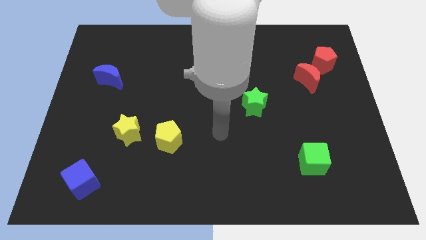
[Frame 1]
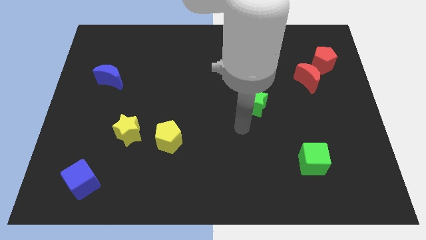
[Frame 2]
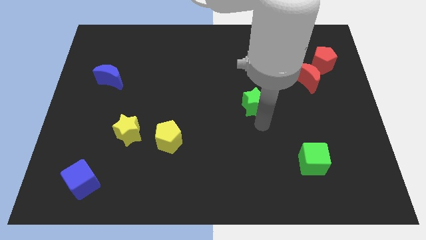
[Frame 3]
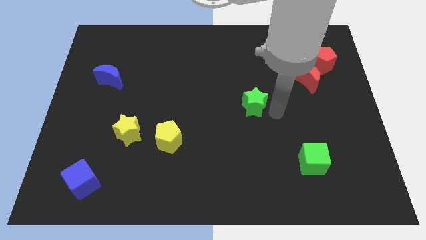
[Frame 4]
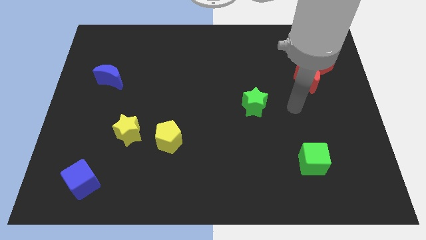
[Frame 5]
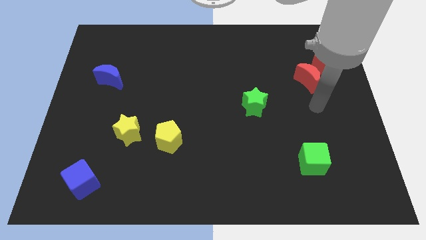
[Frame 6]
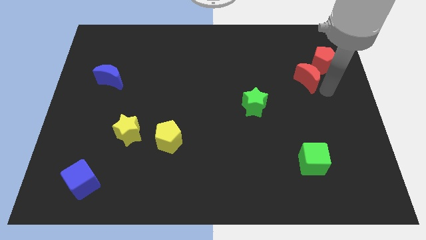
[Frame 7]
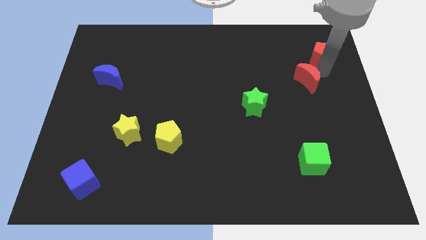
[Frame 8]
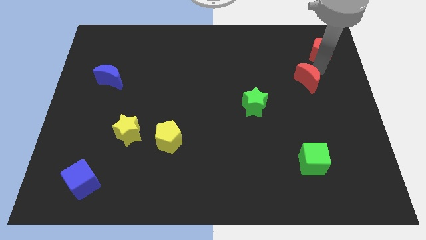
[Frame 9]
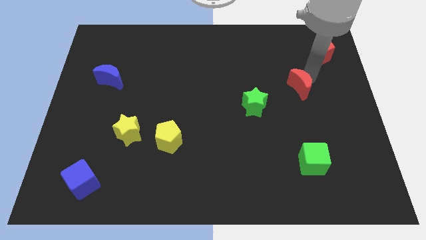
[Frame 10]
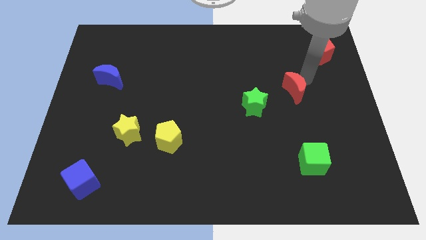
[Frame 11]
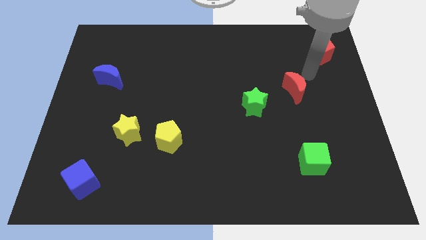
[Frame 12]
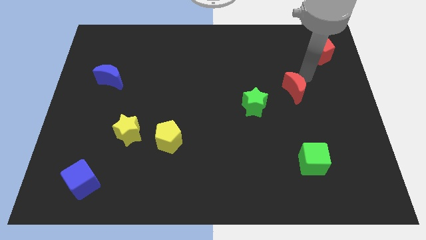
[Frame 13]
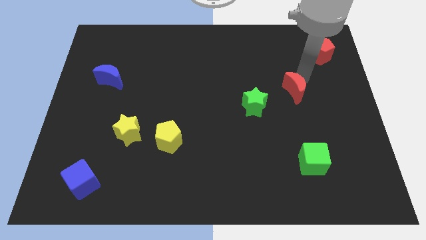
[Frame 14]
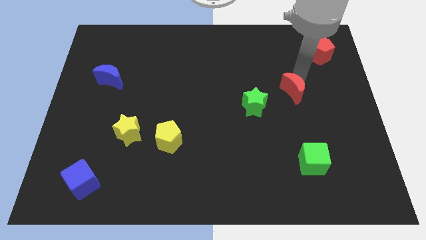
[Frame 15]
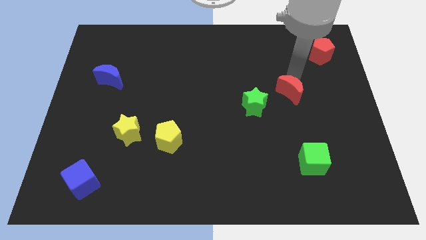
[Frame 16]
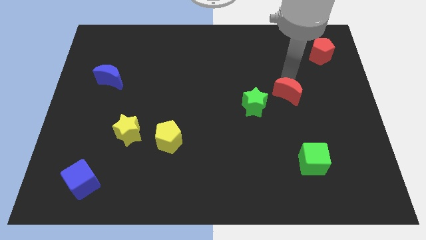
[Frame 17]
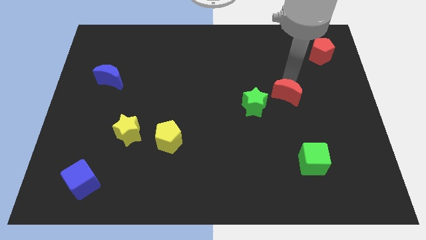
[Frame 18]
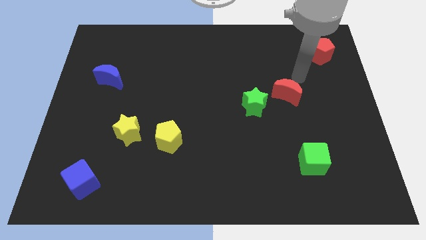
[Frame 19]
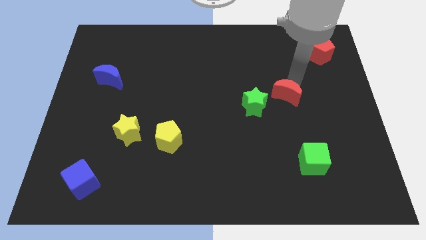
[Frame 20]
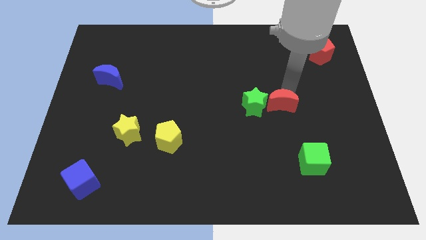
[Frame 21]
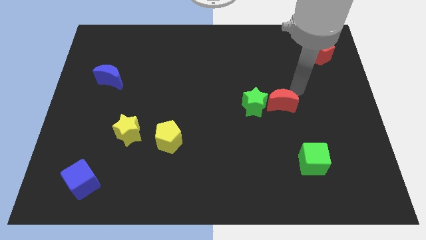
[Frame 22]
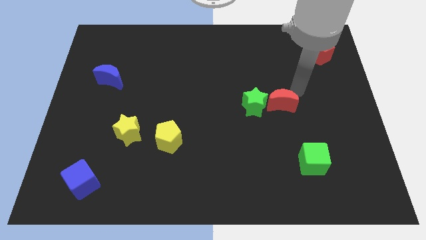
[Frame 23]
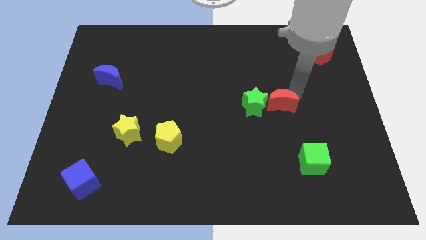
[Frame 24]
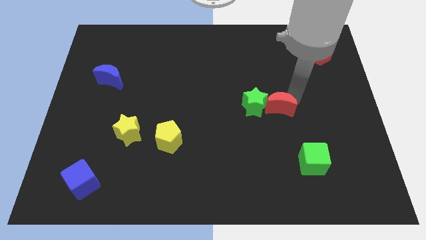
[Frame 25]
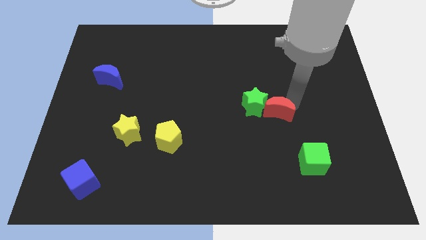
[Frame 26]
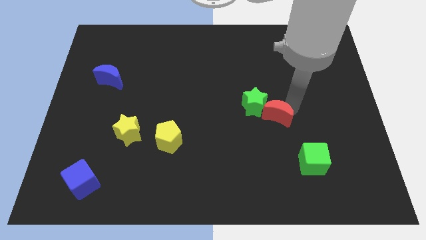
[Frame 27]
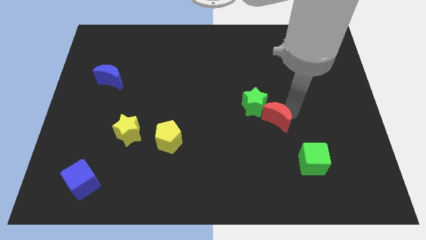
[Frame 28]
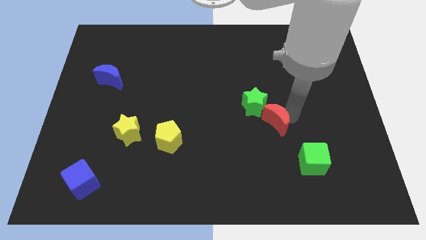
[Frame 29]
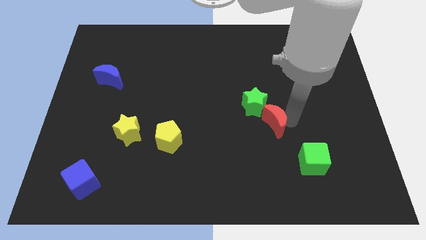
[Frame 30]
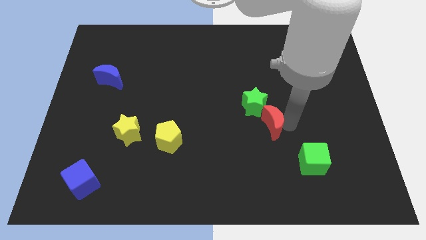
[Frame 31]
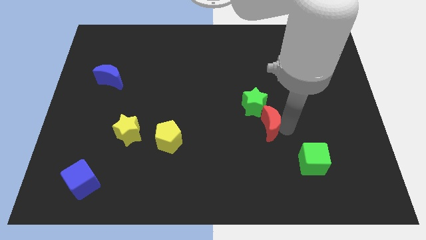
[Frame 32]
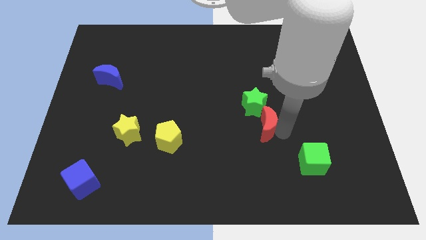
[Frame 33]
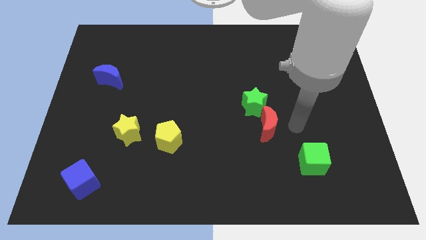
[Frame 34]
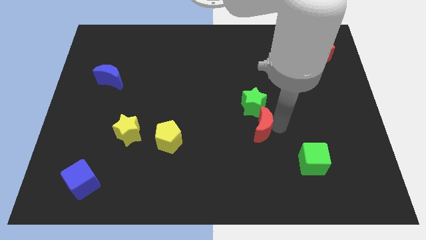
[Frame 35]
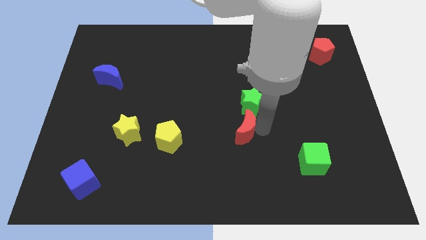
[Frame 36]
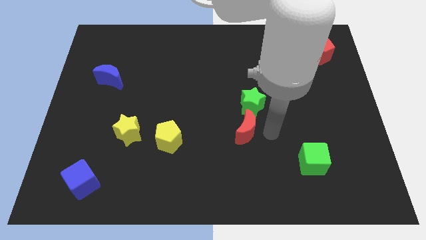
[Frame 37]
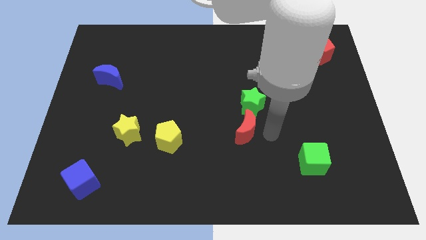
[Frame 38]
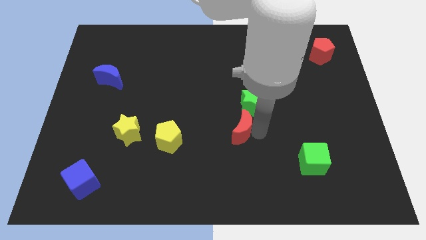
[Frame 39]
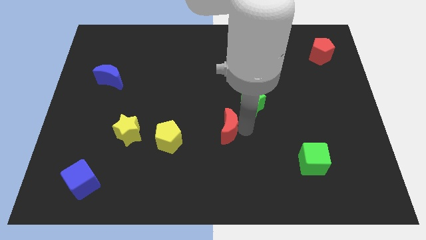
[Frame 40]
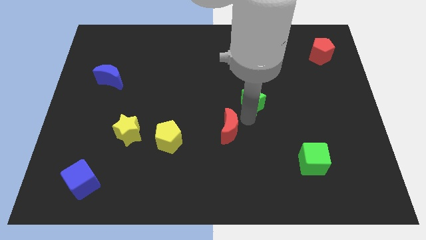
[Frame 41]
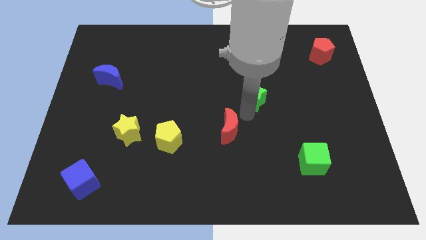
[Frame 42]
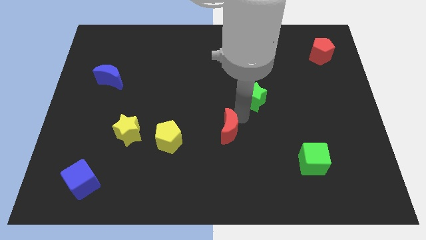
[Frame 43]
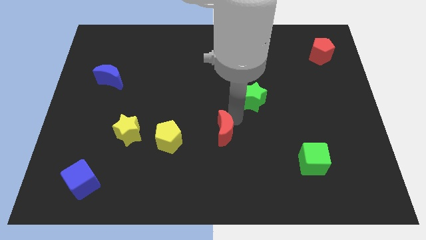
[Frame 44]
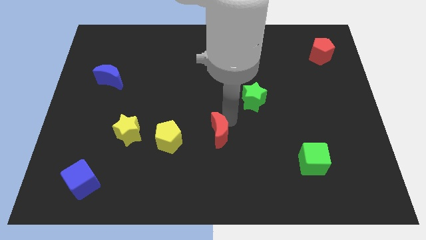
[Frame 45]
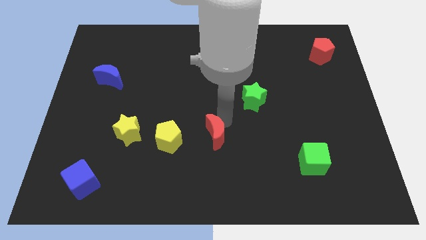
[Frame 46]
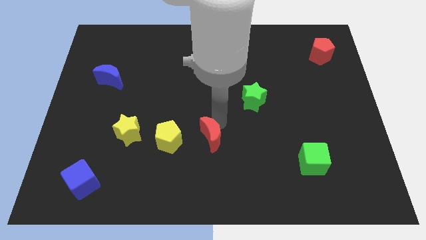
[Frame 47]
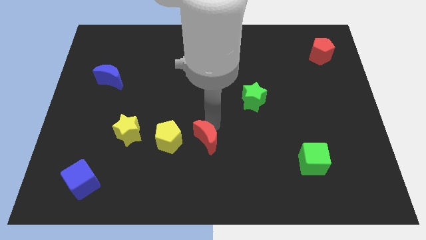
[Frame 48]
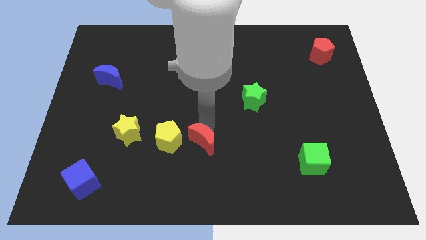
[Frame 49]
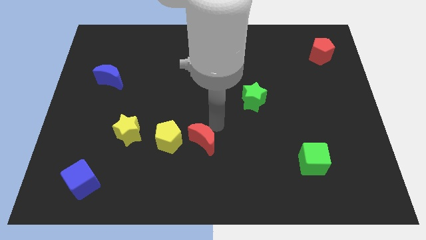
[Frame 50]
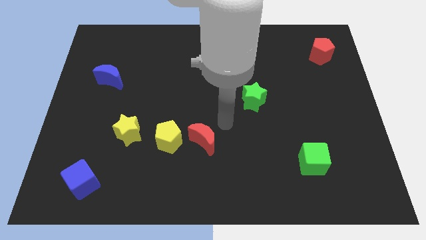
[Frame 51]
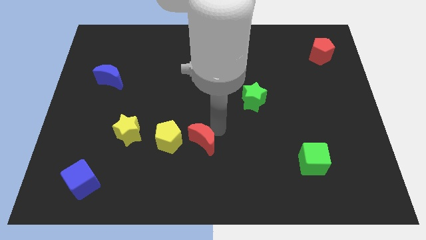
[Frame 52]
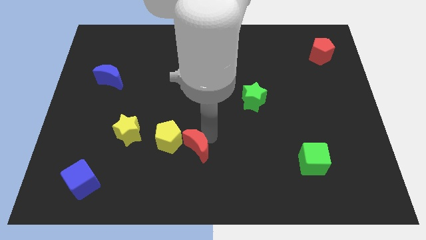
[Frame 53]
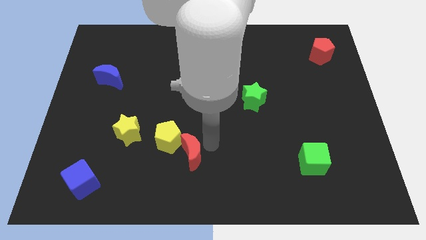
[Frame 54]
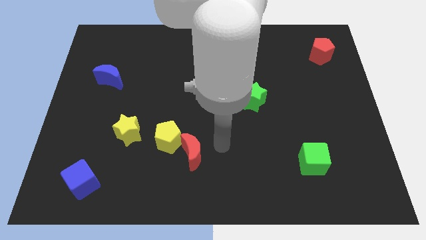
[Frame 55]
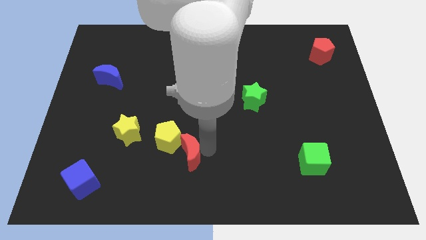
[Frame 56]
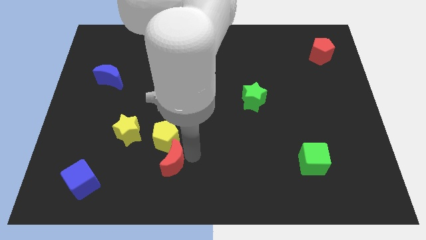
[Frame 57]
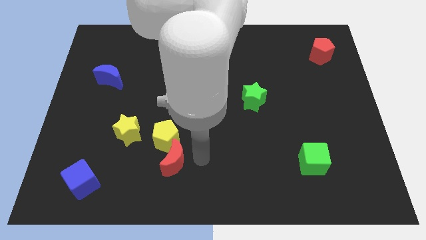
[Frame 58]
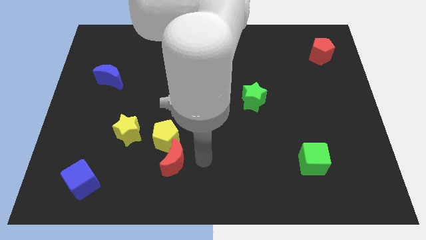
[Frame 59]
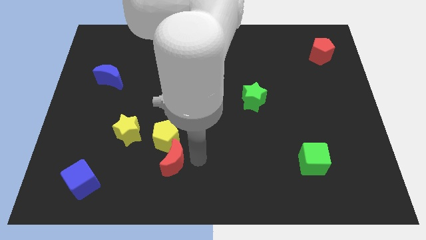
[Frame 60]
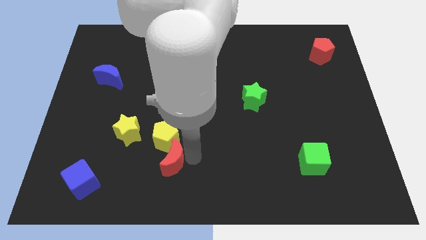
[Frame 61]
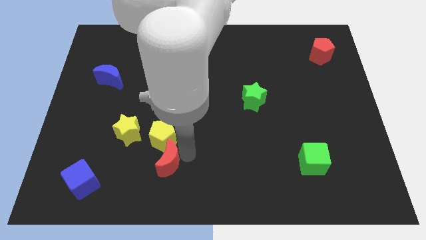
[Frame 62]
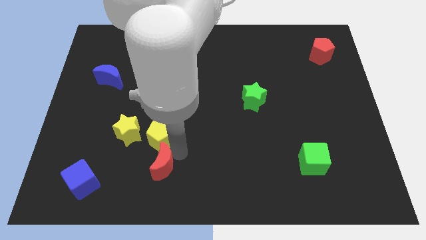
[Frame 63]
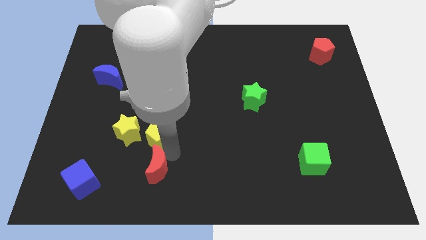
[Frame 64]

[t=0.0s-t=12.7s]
put the red moon to the right of the blue cube

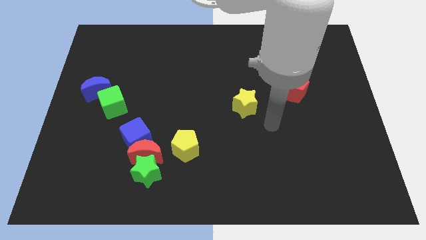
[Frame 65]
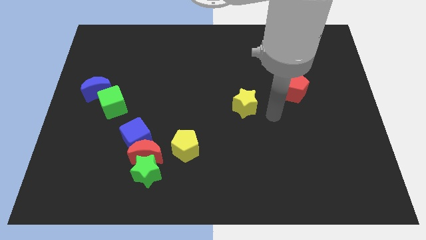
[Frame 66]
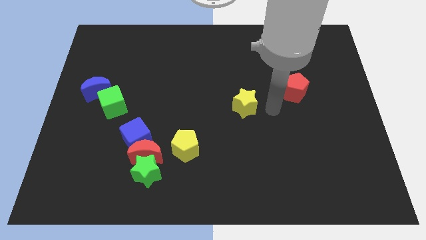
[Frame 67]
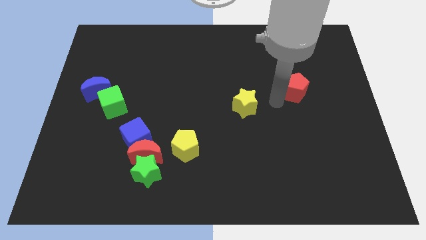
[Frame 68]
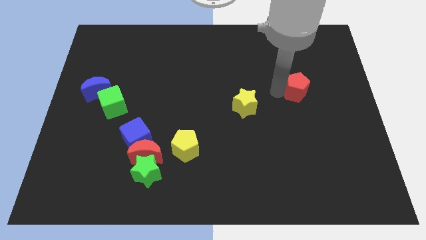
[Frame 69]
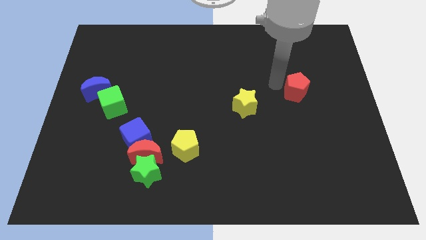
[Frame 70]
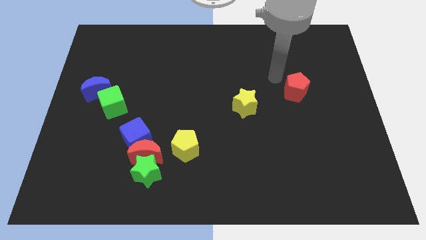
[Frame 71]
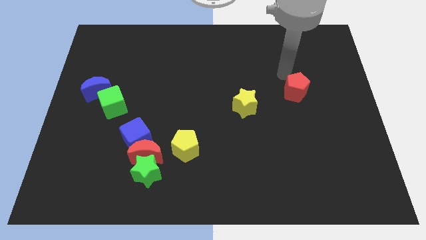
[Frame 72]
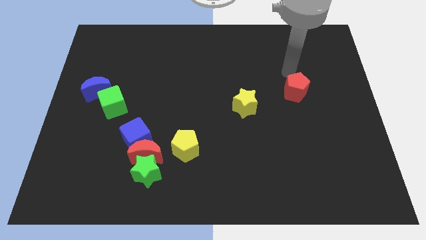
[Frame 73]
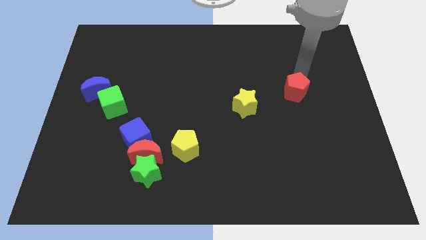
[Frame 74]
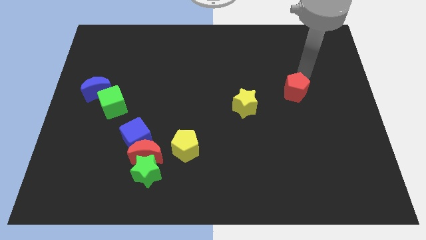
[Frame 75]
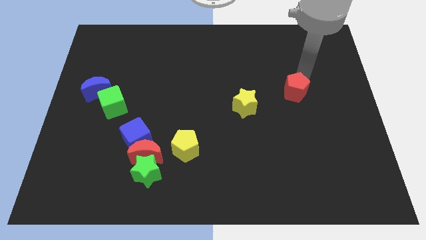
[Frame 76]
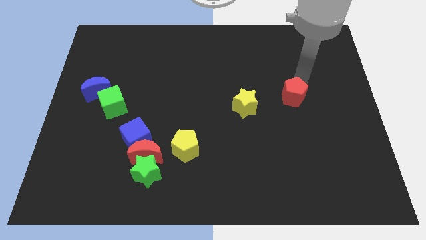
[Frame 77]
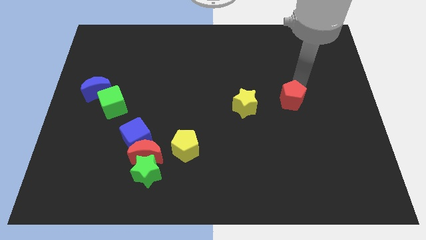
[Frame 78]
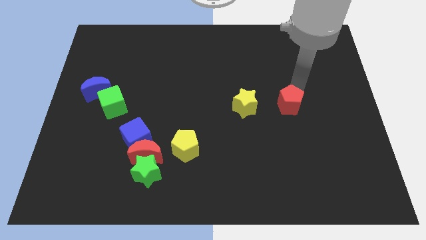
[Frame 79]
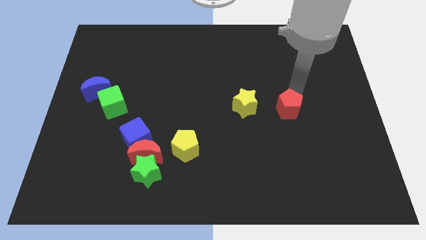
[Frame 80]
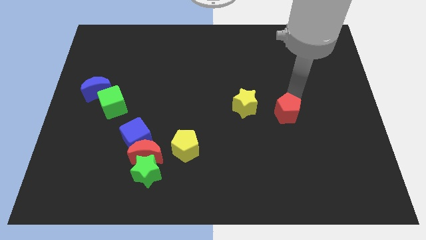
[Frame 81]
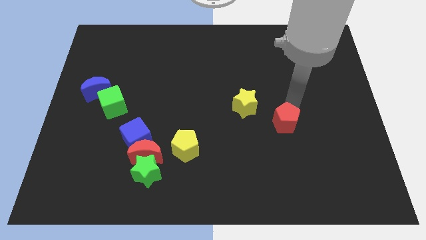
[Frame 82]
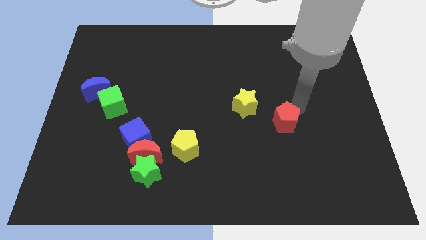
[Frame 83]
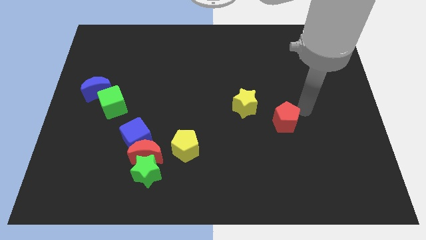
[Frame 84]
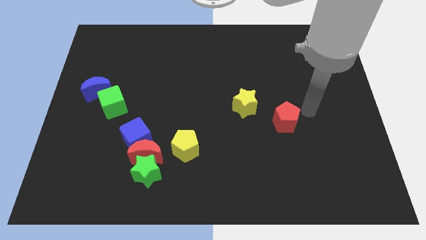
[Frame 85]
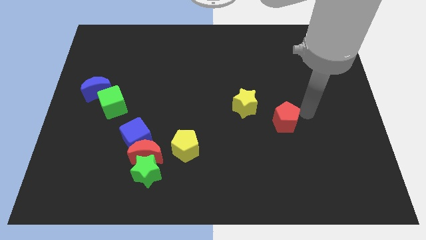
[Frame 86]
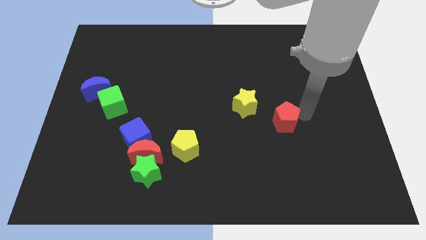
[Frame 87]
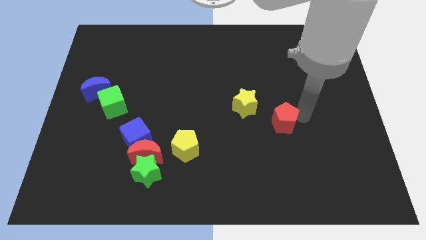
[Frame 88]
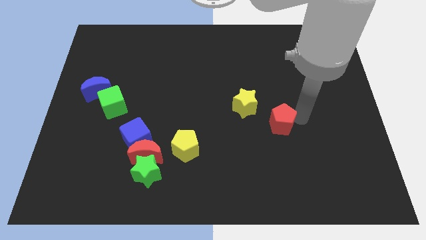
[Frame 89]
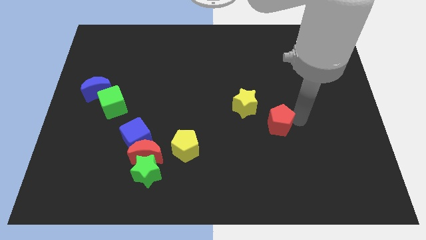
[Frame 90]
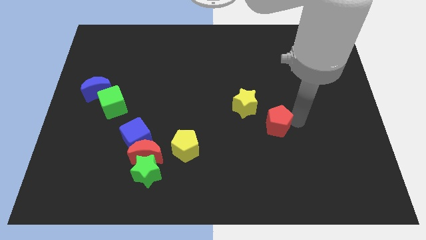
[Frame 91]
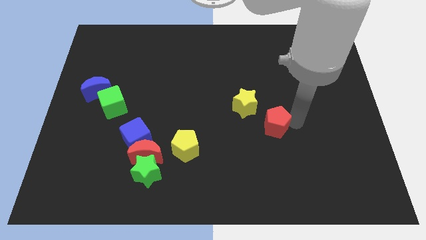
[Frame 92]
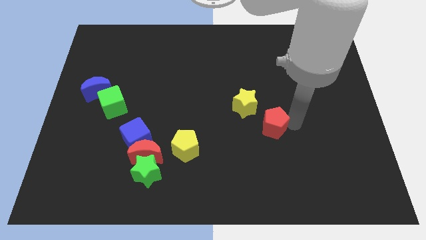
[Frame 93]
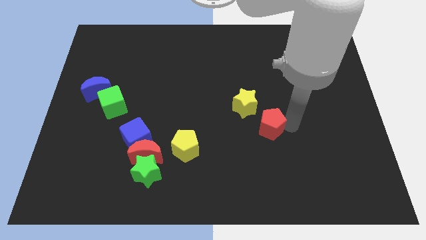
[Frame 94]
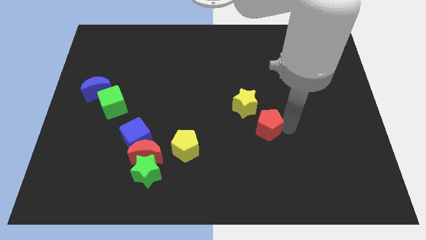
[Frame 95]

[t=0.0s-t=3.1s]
slide the red pentagon to the bottom side of the yellow star
